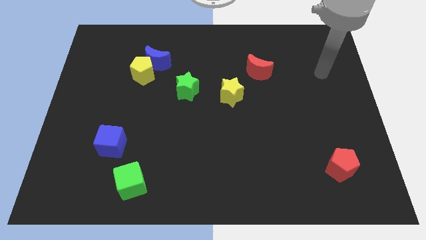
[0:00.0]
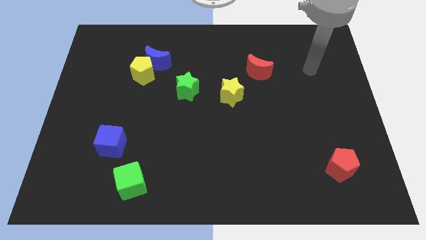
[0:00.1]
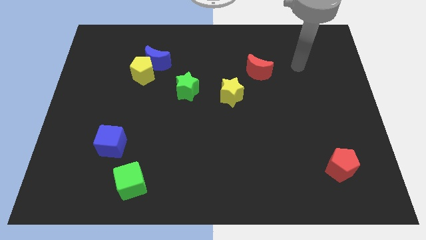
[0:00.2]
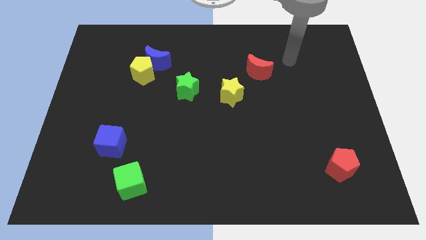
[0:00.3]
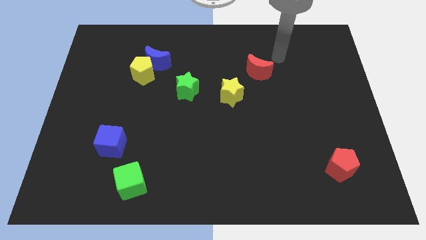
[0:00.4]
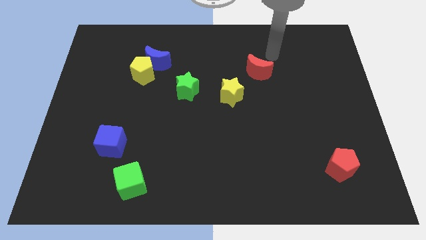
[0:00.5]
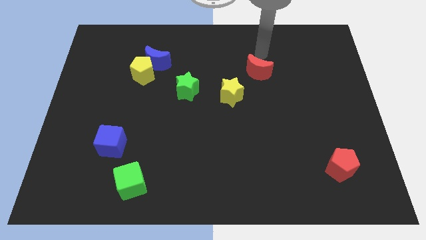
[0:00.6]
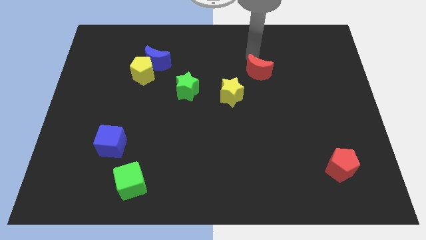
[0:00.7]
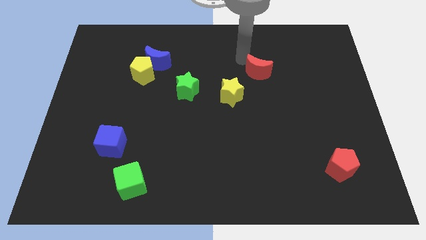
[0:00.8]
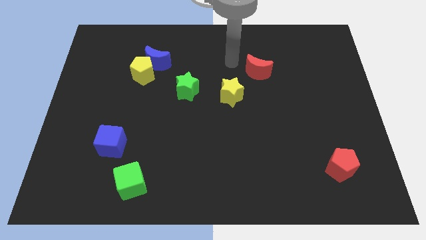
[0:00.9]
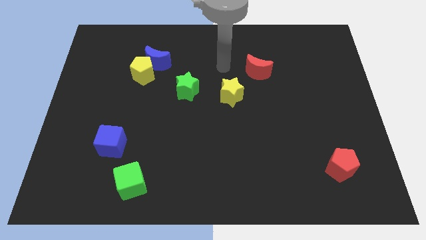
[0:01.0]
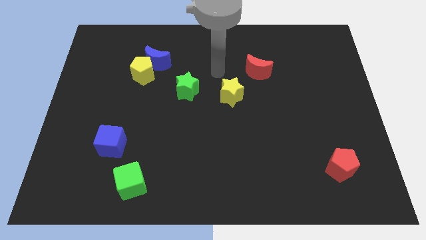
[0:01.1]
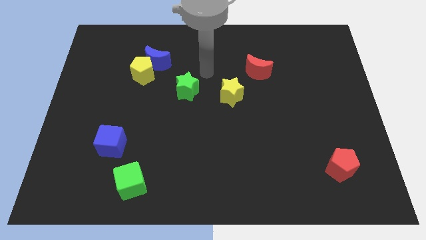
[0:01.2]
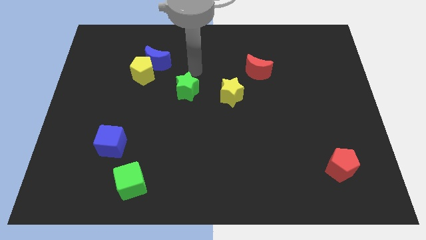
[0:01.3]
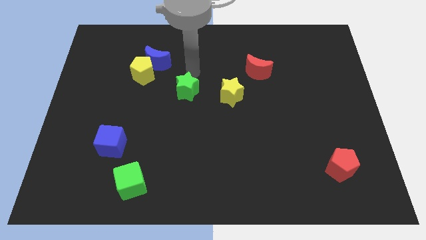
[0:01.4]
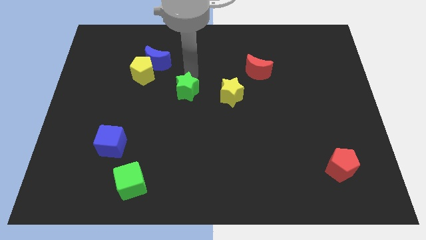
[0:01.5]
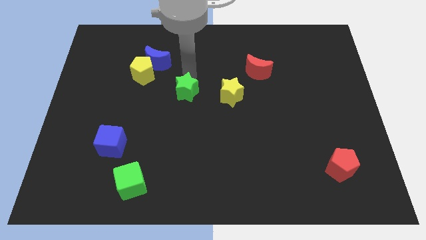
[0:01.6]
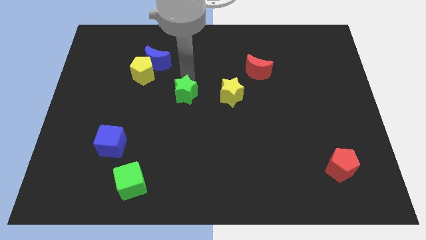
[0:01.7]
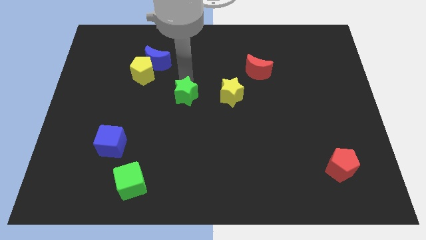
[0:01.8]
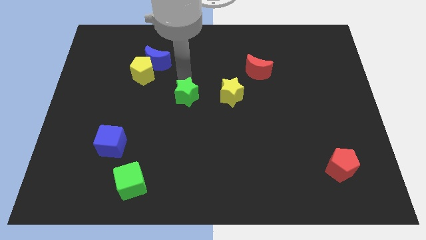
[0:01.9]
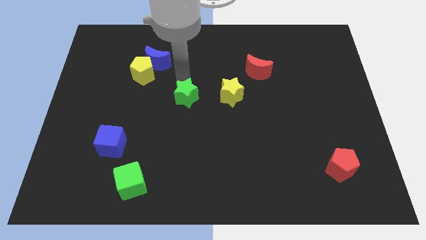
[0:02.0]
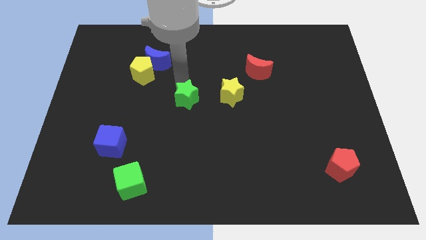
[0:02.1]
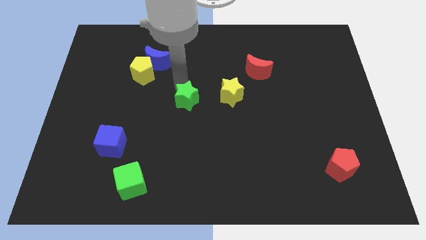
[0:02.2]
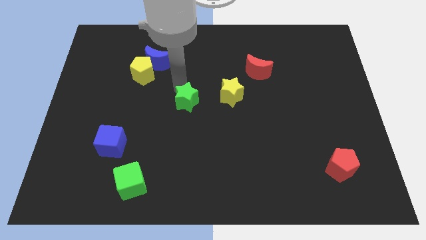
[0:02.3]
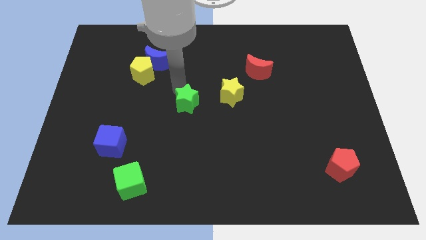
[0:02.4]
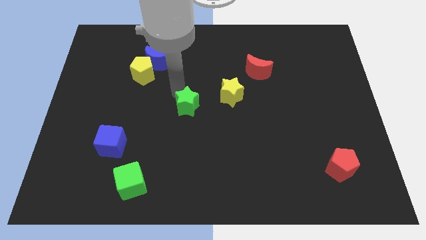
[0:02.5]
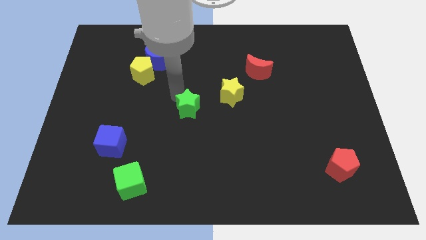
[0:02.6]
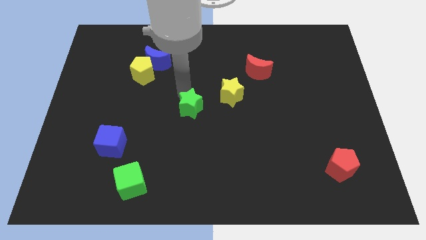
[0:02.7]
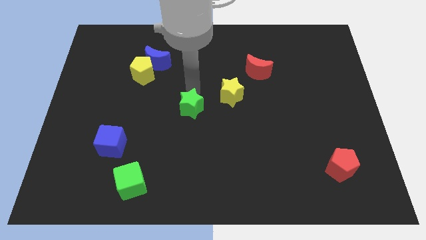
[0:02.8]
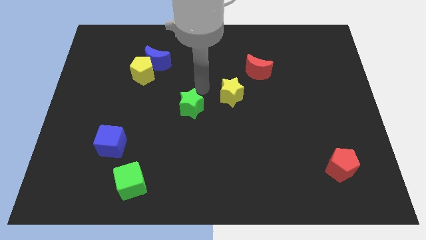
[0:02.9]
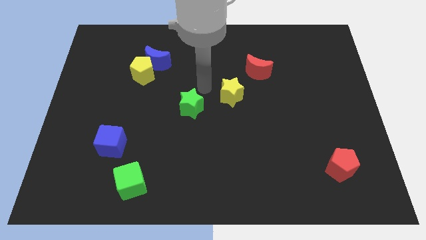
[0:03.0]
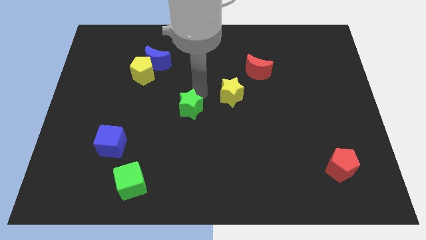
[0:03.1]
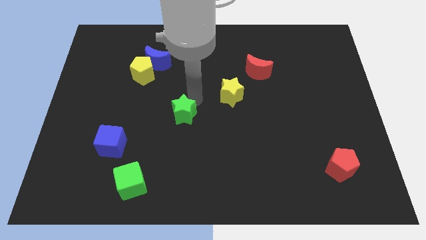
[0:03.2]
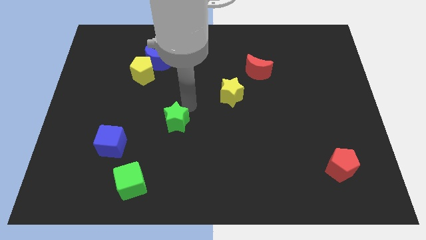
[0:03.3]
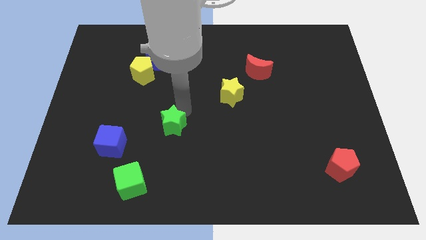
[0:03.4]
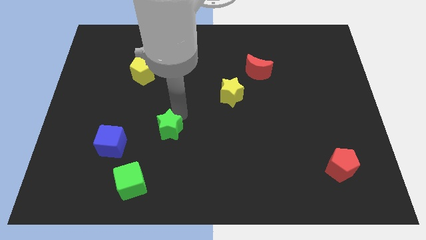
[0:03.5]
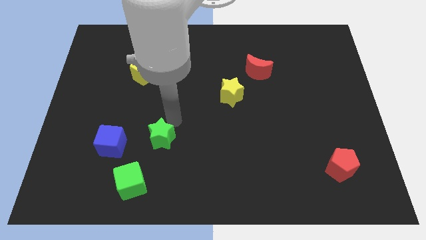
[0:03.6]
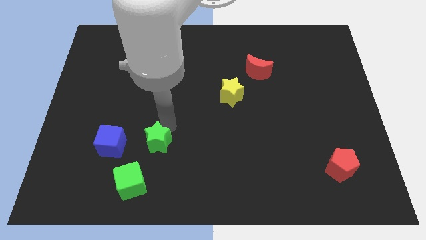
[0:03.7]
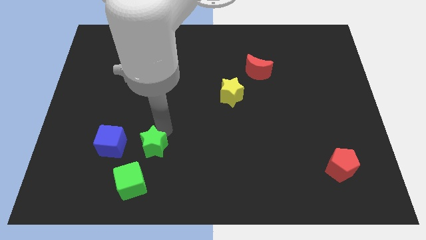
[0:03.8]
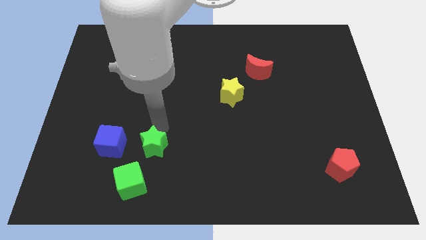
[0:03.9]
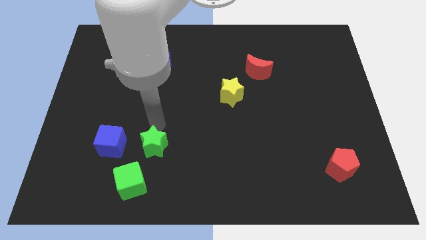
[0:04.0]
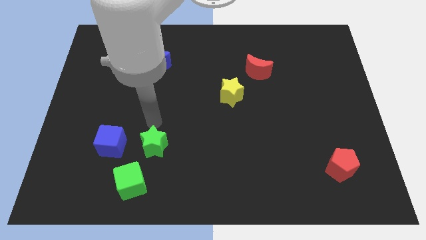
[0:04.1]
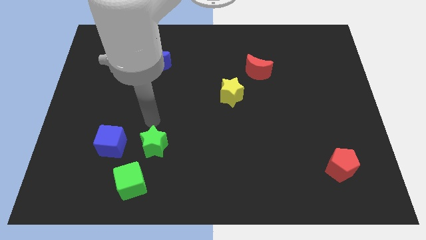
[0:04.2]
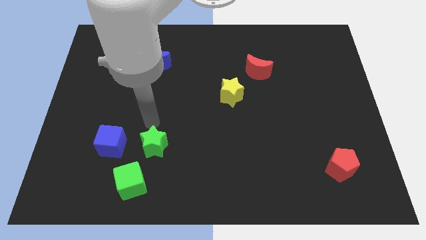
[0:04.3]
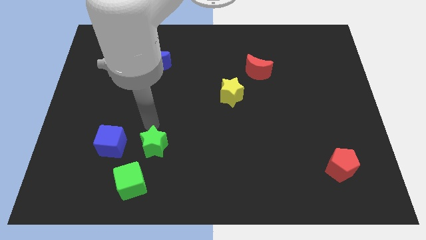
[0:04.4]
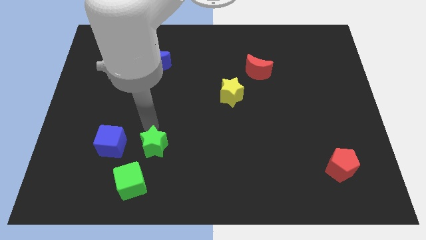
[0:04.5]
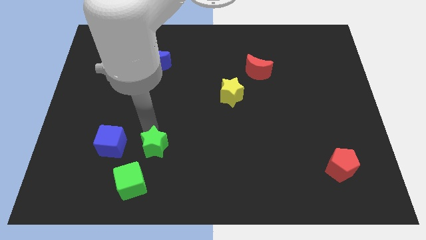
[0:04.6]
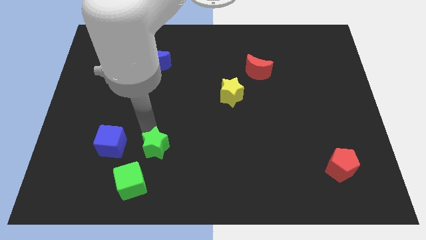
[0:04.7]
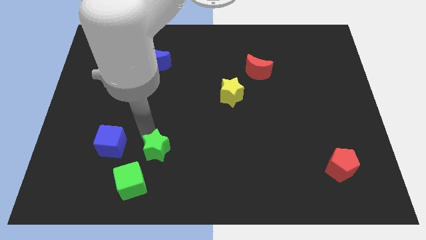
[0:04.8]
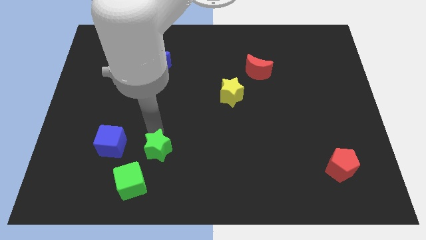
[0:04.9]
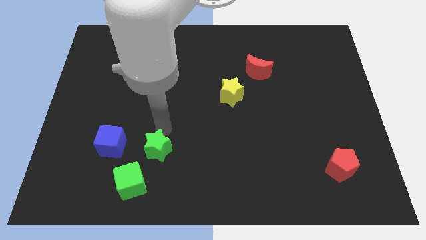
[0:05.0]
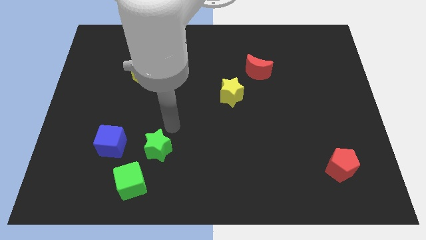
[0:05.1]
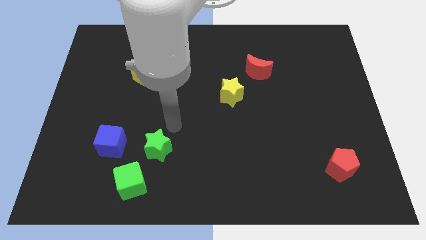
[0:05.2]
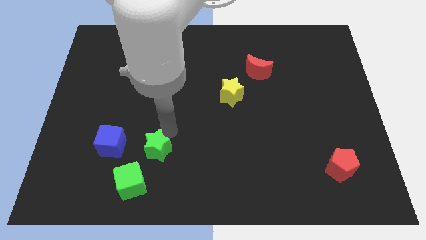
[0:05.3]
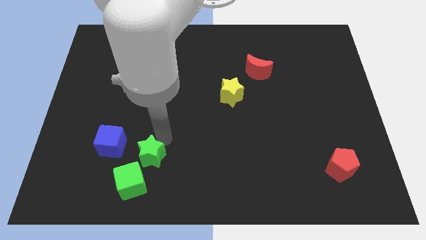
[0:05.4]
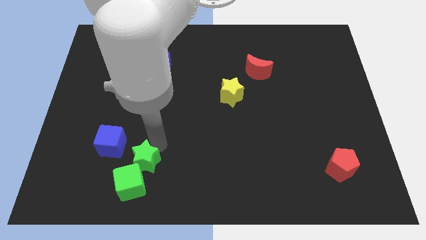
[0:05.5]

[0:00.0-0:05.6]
slide the green star next to the green cube
